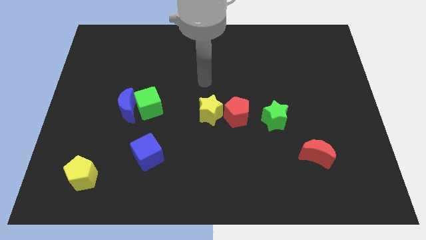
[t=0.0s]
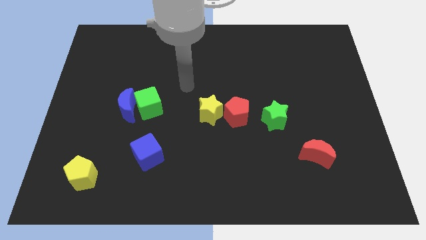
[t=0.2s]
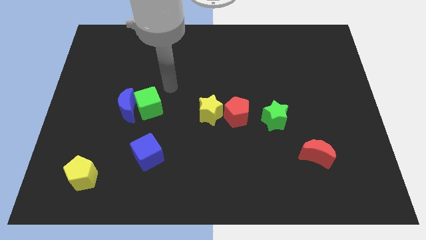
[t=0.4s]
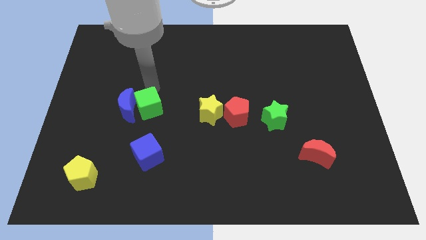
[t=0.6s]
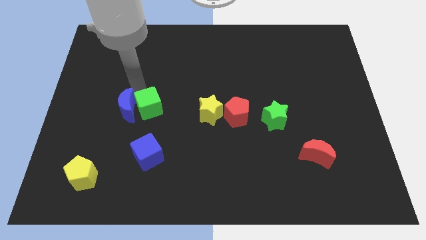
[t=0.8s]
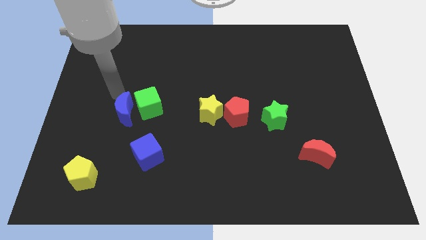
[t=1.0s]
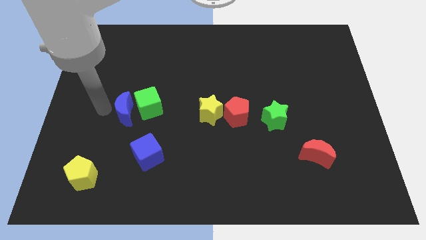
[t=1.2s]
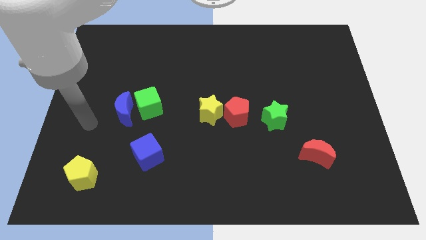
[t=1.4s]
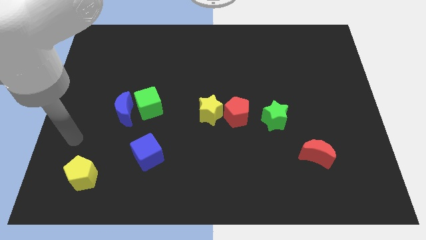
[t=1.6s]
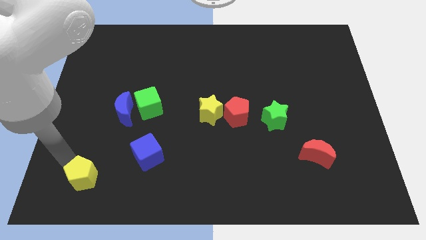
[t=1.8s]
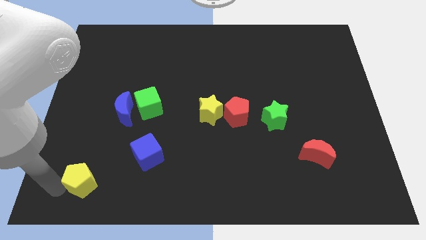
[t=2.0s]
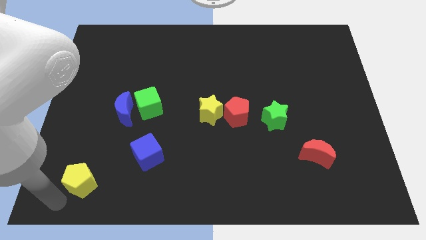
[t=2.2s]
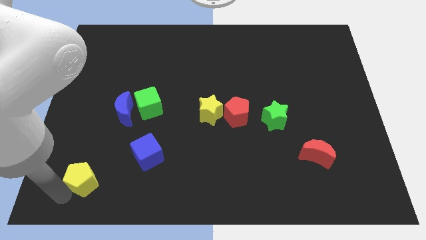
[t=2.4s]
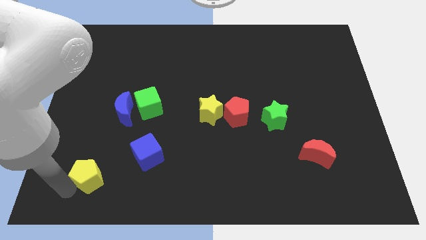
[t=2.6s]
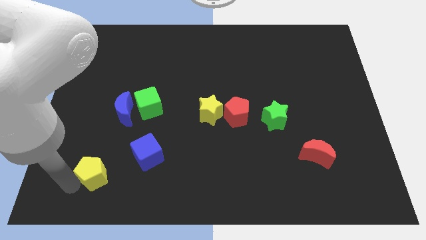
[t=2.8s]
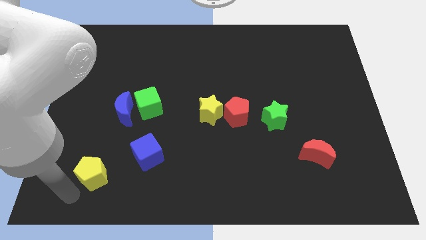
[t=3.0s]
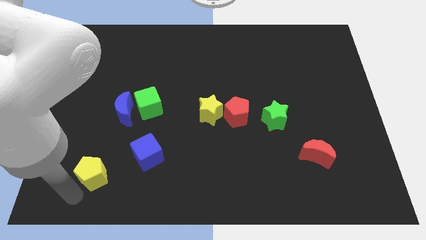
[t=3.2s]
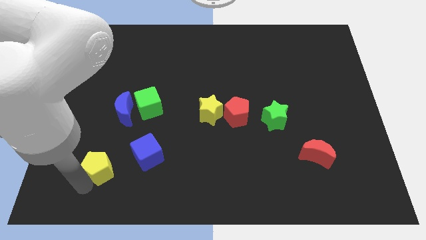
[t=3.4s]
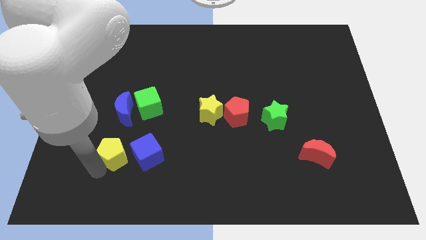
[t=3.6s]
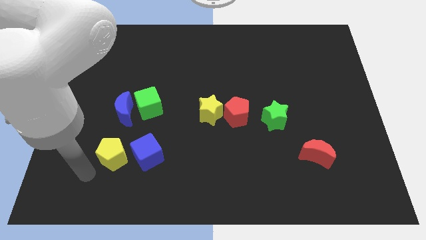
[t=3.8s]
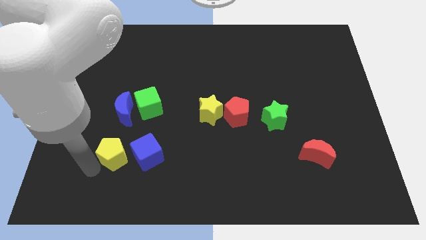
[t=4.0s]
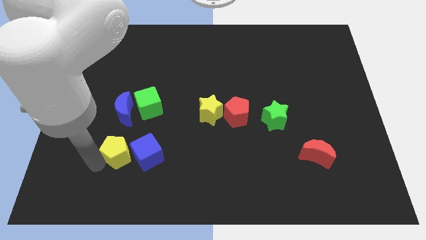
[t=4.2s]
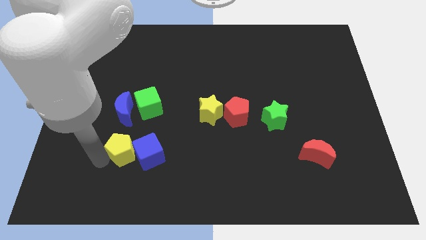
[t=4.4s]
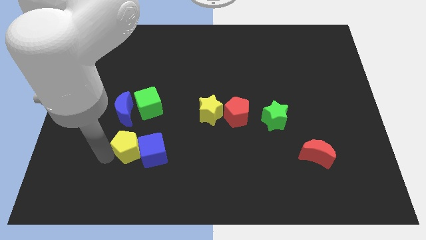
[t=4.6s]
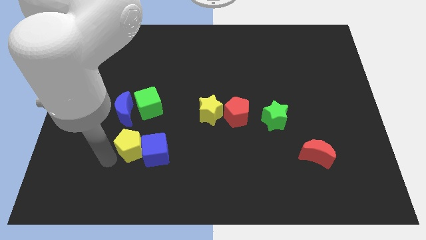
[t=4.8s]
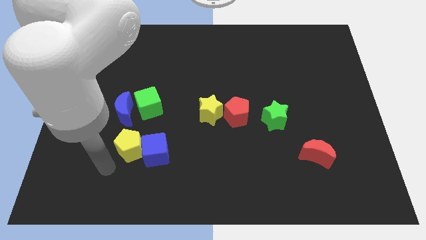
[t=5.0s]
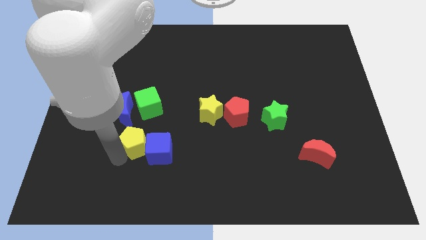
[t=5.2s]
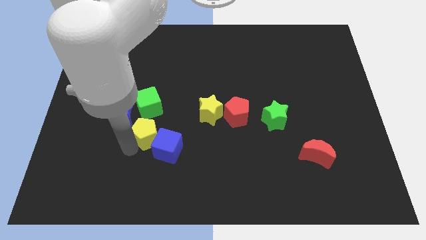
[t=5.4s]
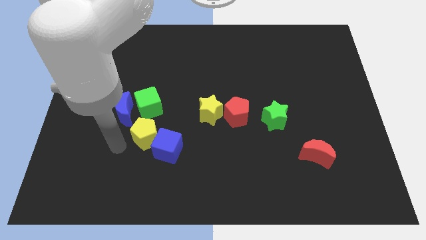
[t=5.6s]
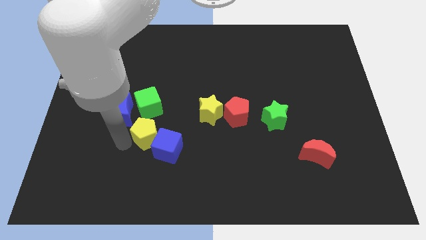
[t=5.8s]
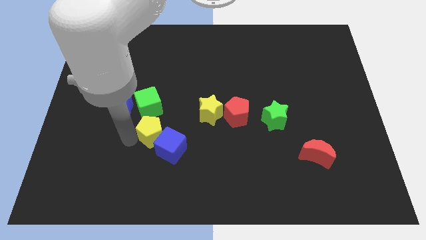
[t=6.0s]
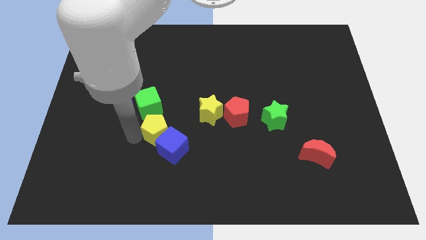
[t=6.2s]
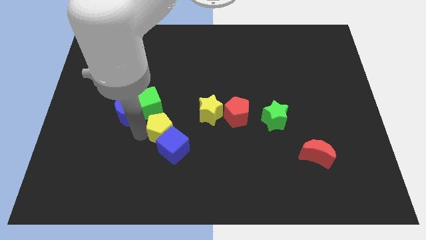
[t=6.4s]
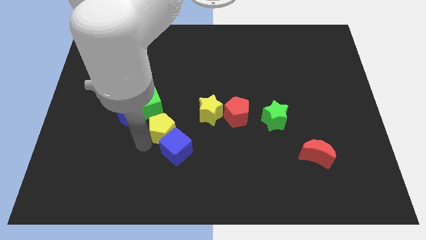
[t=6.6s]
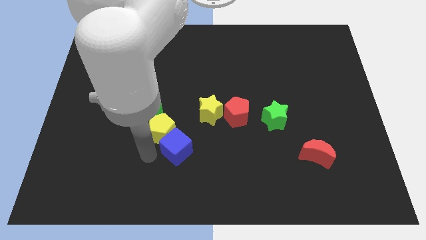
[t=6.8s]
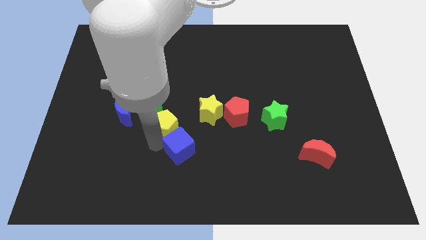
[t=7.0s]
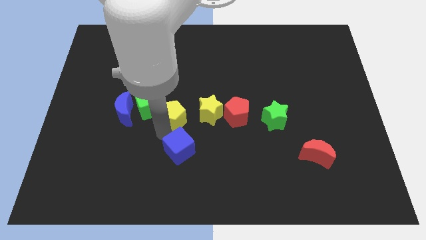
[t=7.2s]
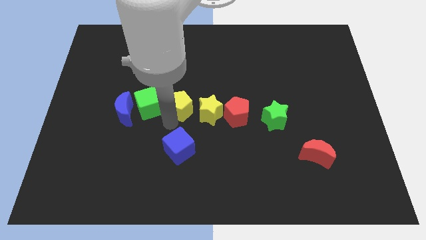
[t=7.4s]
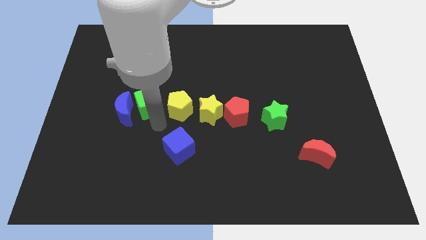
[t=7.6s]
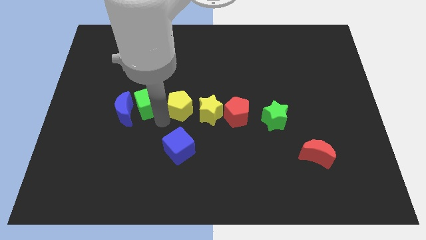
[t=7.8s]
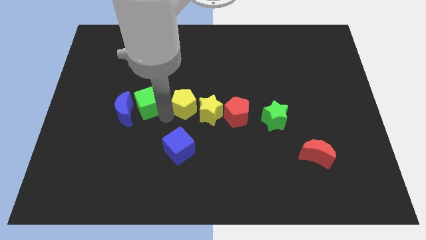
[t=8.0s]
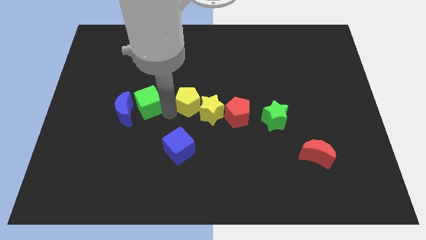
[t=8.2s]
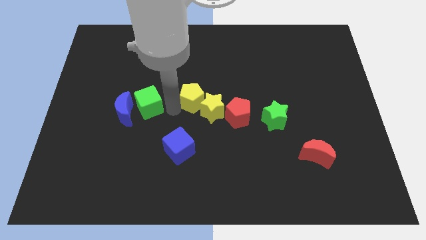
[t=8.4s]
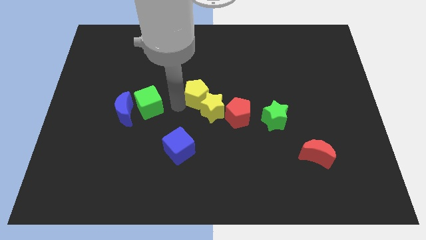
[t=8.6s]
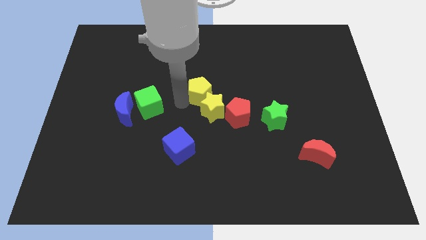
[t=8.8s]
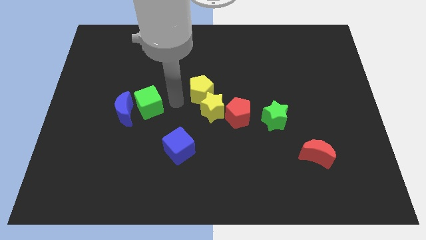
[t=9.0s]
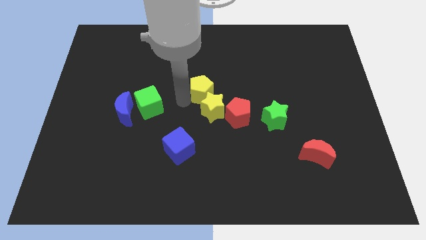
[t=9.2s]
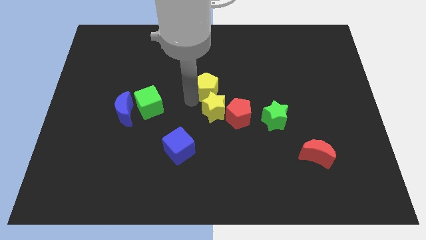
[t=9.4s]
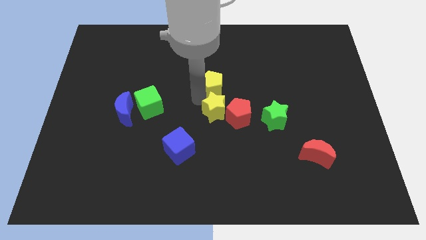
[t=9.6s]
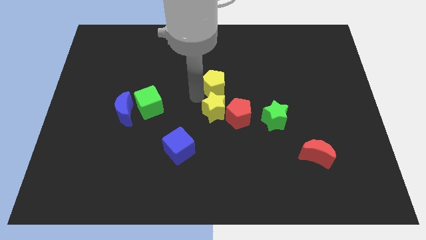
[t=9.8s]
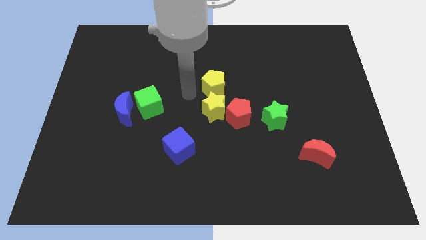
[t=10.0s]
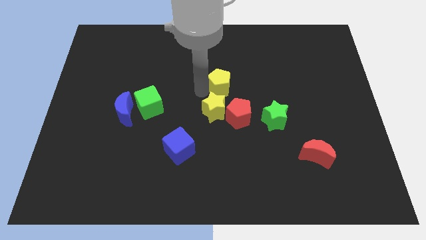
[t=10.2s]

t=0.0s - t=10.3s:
push the yellow pentagon to the top side of the red pentagon

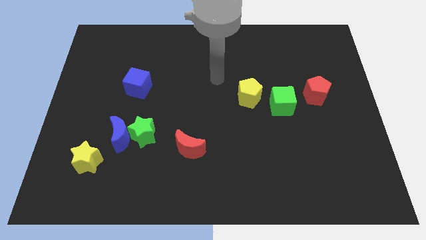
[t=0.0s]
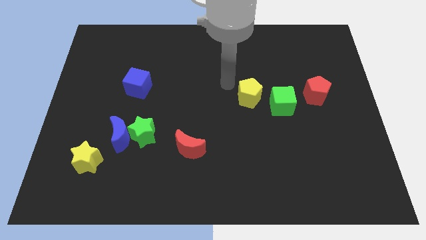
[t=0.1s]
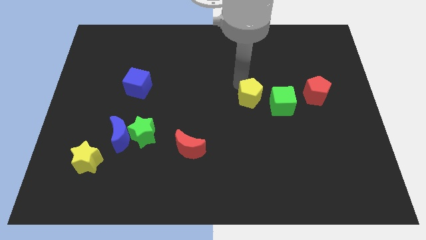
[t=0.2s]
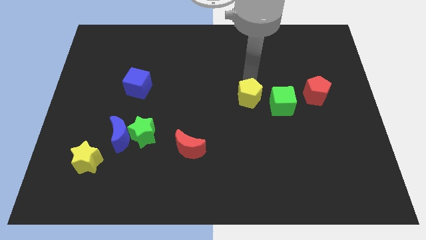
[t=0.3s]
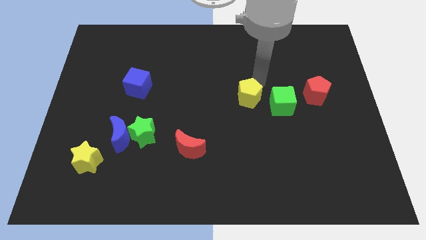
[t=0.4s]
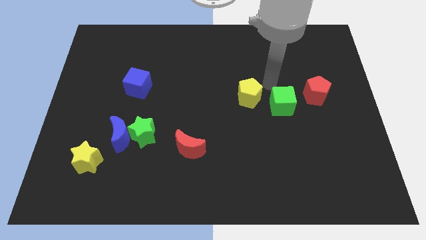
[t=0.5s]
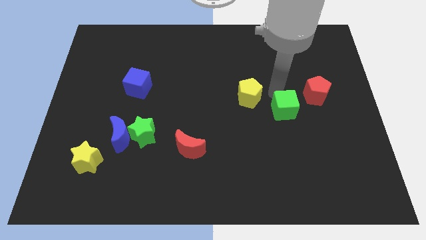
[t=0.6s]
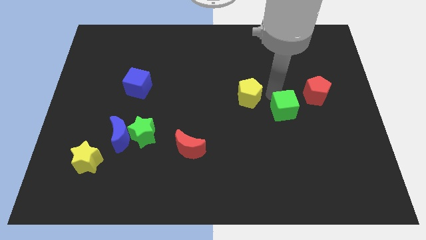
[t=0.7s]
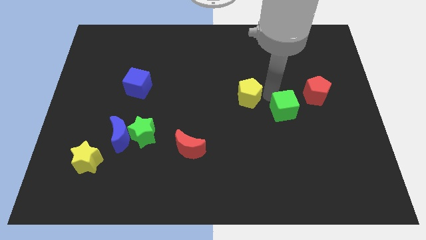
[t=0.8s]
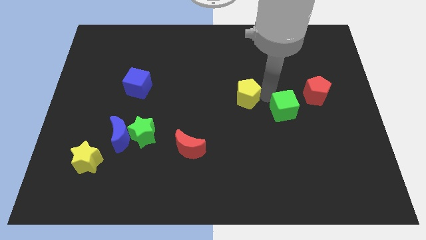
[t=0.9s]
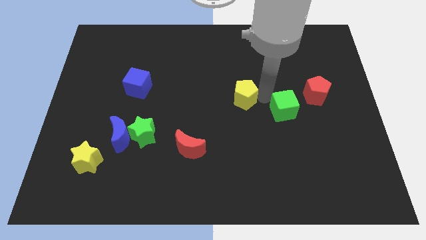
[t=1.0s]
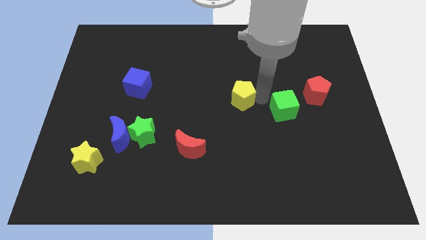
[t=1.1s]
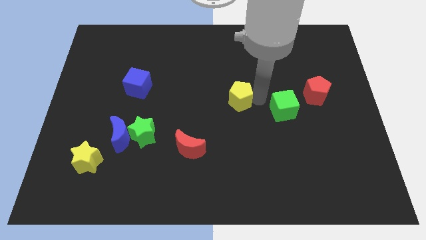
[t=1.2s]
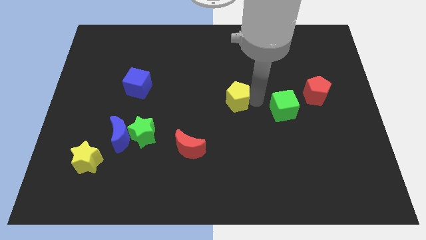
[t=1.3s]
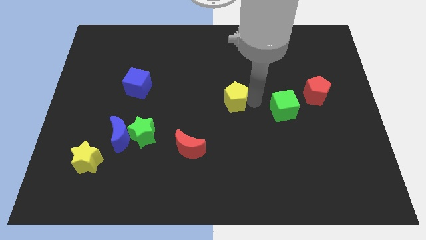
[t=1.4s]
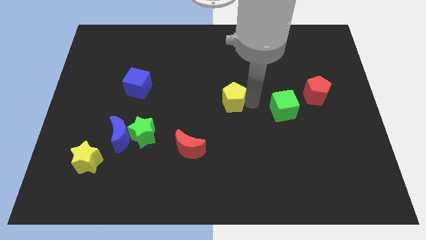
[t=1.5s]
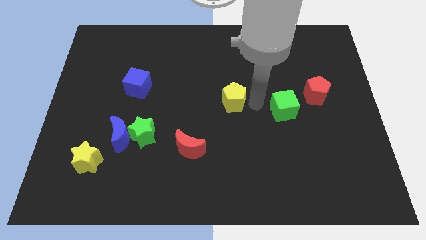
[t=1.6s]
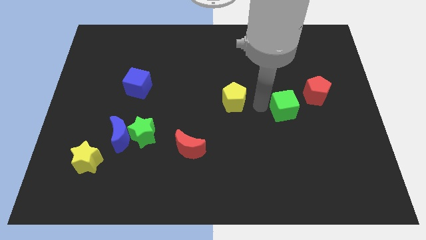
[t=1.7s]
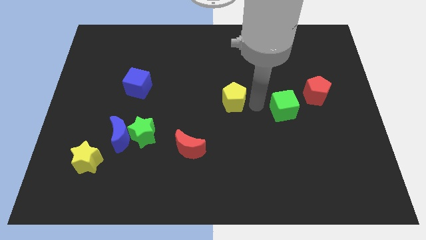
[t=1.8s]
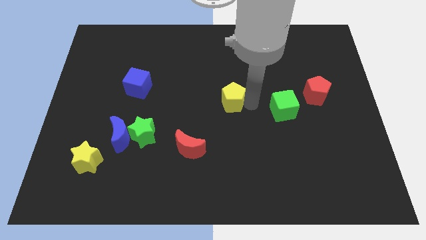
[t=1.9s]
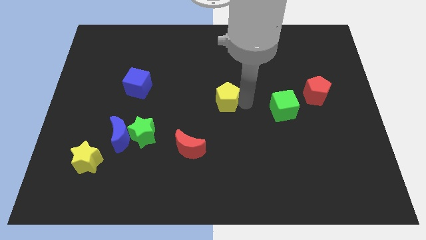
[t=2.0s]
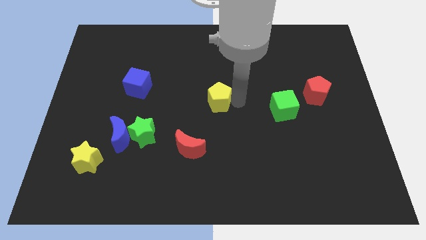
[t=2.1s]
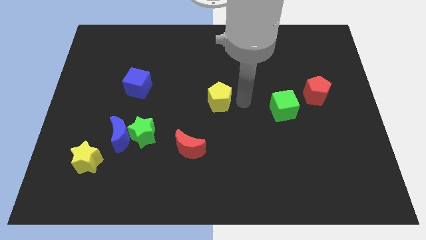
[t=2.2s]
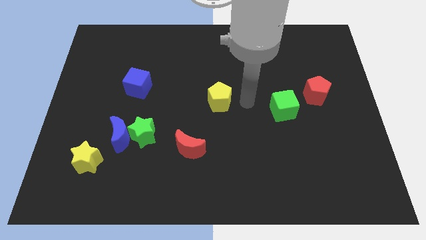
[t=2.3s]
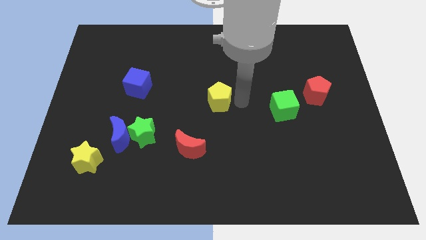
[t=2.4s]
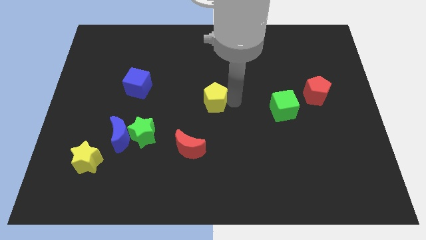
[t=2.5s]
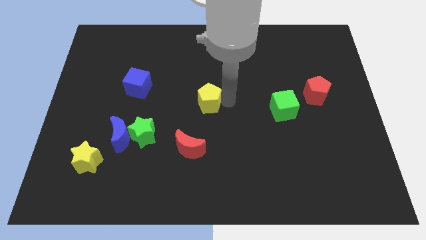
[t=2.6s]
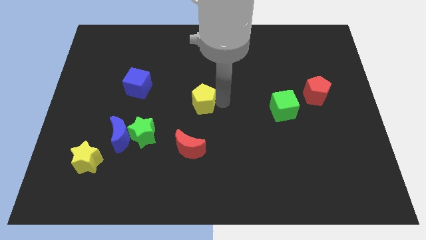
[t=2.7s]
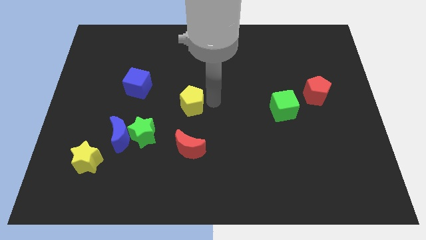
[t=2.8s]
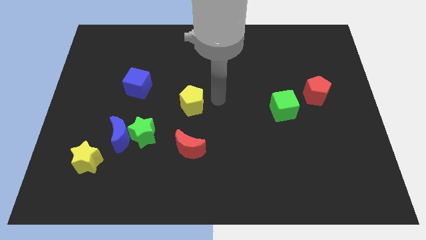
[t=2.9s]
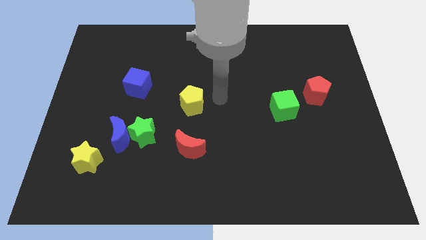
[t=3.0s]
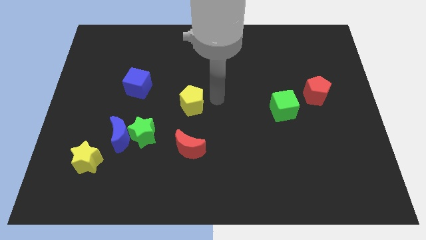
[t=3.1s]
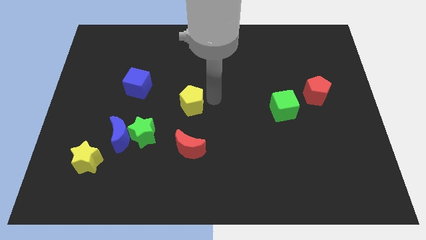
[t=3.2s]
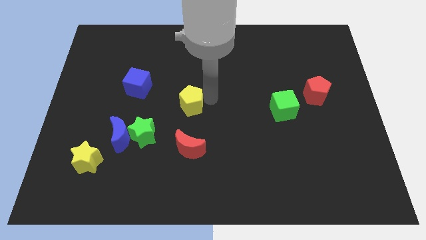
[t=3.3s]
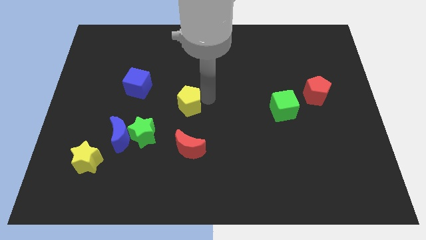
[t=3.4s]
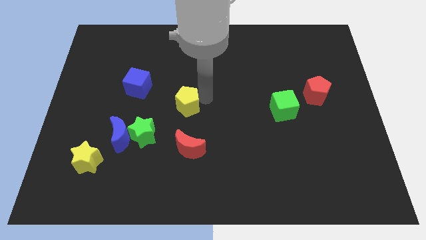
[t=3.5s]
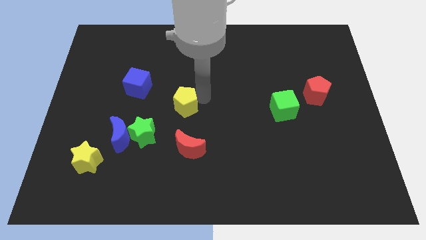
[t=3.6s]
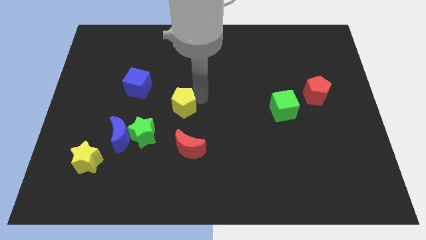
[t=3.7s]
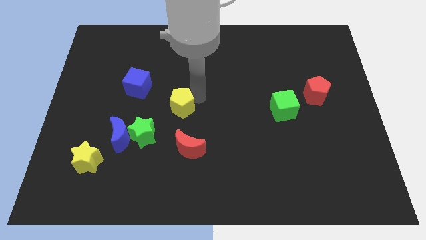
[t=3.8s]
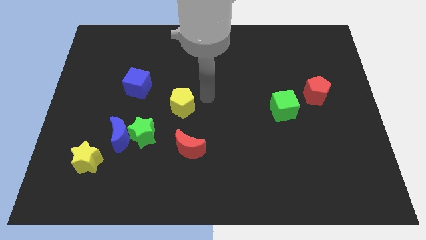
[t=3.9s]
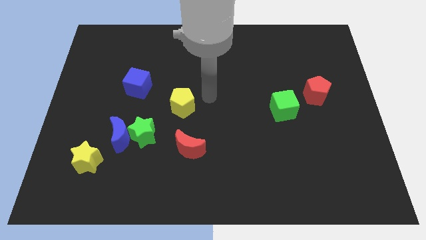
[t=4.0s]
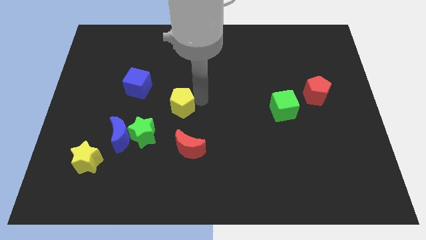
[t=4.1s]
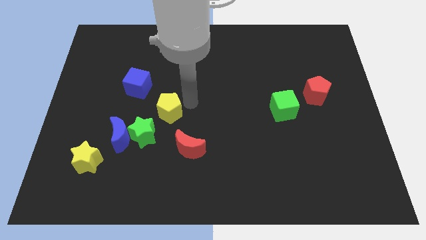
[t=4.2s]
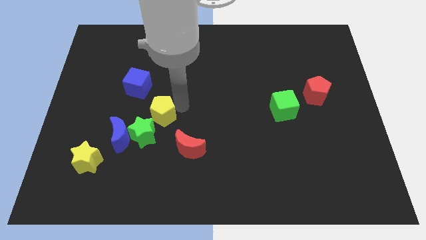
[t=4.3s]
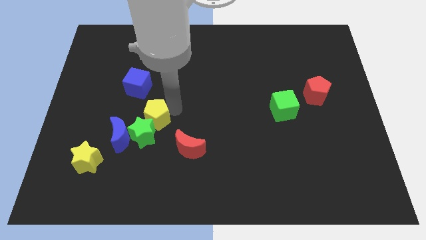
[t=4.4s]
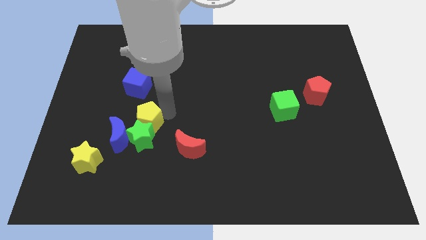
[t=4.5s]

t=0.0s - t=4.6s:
slide the yellow pentagon below the blue cube
